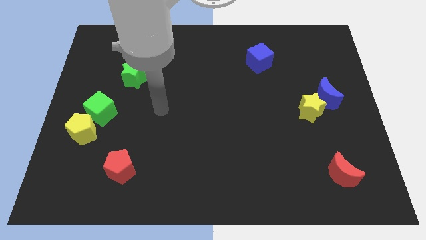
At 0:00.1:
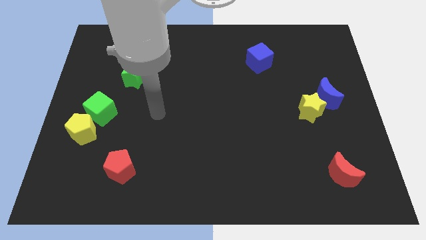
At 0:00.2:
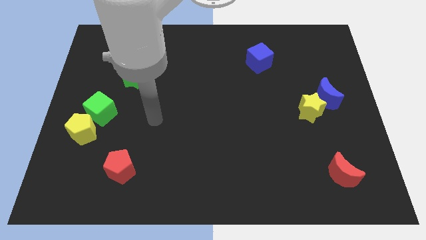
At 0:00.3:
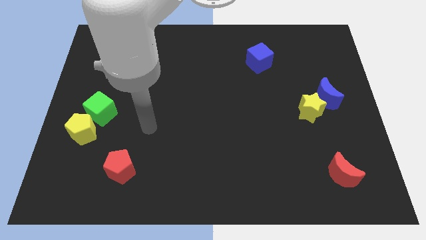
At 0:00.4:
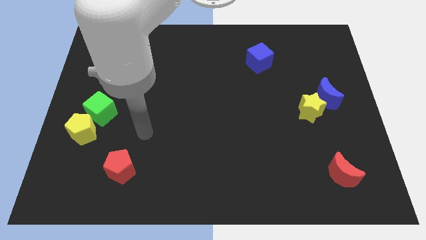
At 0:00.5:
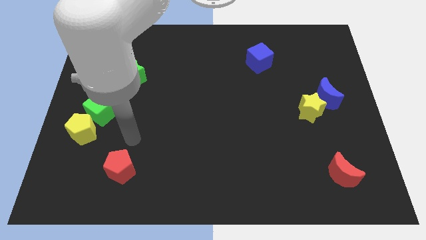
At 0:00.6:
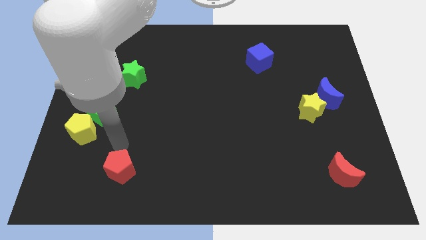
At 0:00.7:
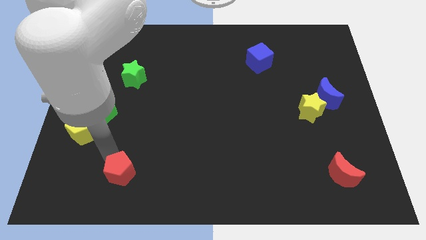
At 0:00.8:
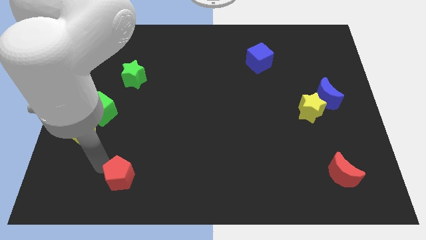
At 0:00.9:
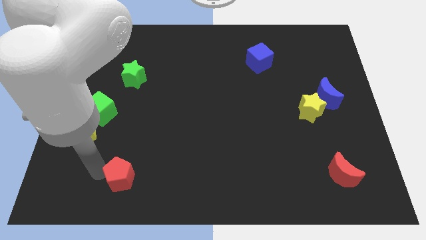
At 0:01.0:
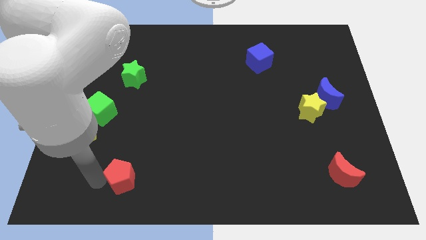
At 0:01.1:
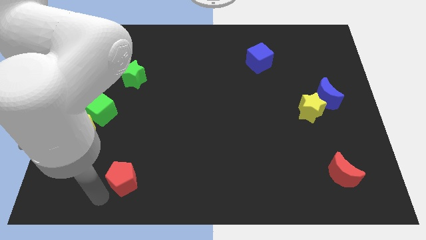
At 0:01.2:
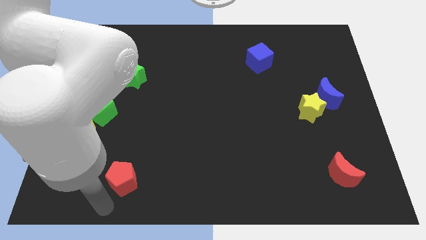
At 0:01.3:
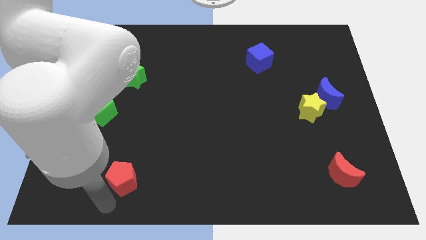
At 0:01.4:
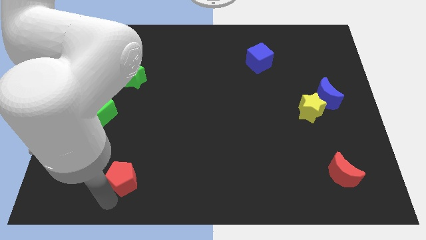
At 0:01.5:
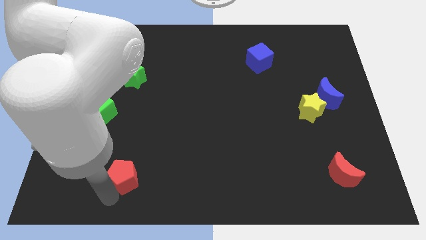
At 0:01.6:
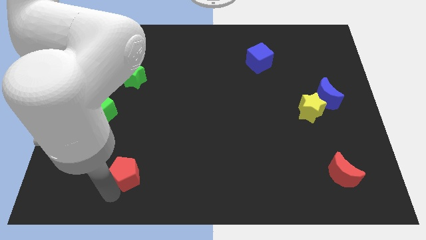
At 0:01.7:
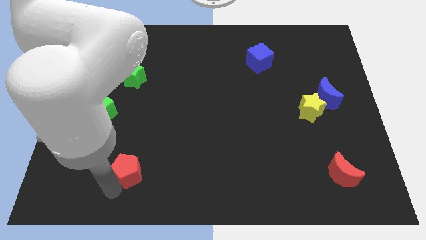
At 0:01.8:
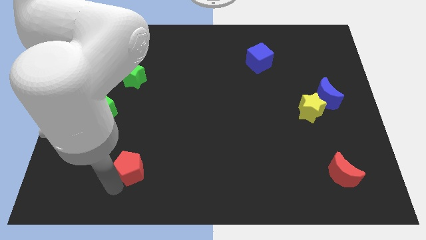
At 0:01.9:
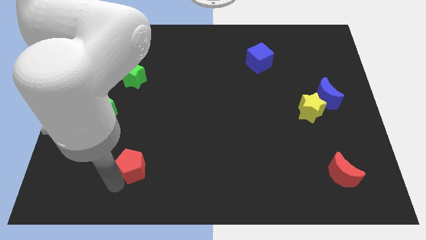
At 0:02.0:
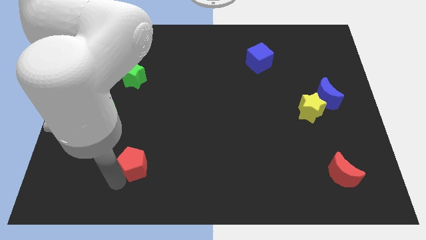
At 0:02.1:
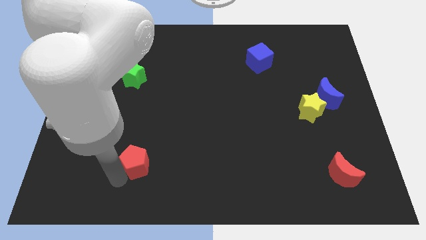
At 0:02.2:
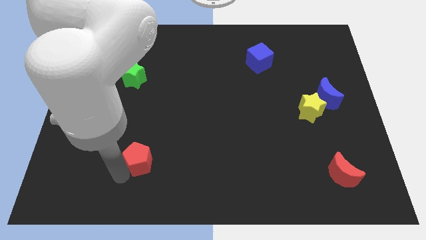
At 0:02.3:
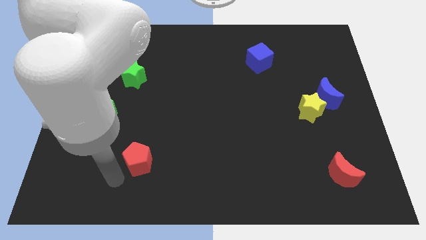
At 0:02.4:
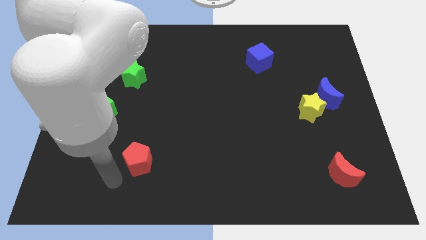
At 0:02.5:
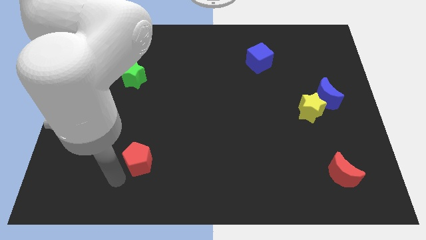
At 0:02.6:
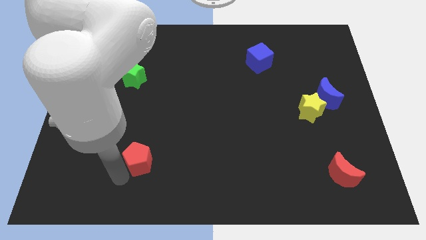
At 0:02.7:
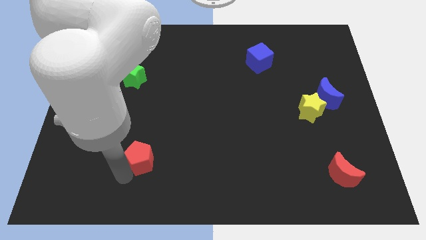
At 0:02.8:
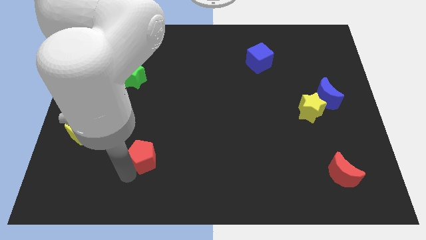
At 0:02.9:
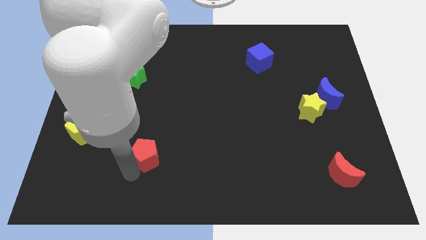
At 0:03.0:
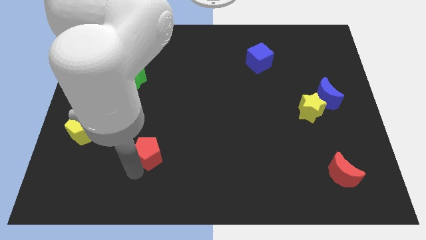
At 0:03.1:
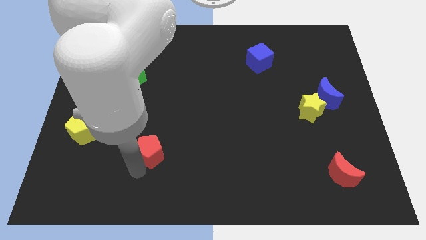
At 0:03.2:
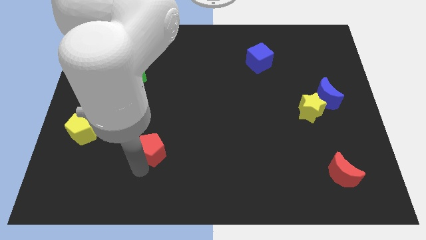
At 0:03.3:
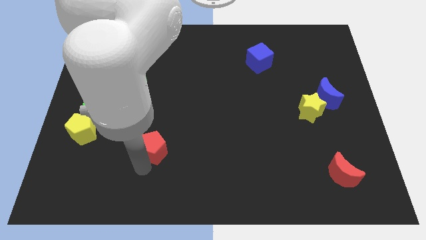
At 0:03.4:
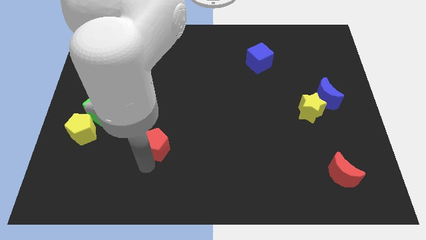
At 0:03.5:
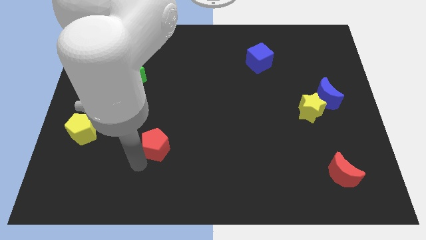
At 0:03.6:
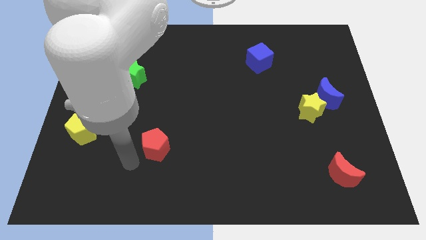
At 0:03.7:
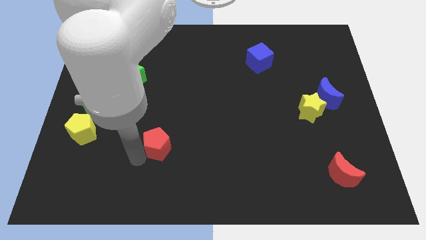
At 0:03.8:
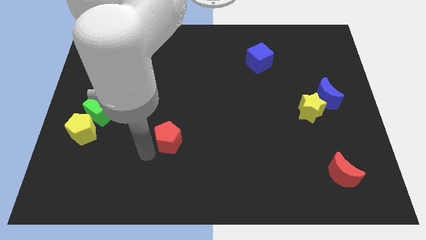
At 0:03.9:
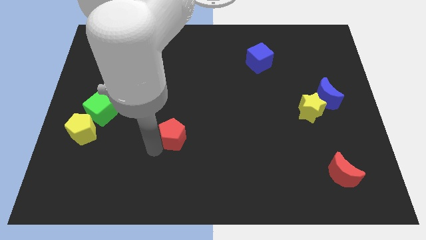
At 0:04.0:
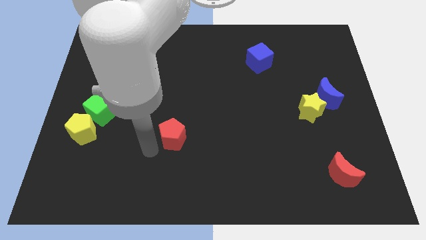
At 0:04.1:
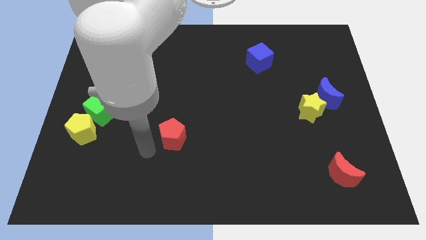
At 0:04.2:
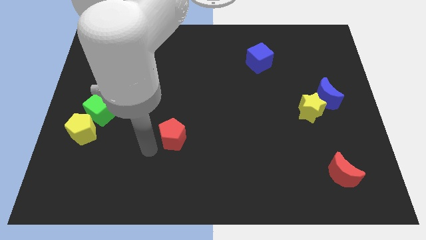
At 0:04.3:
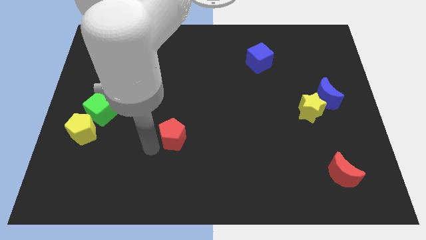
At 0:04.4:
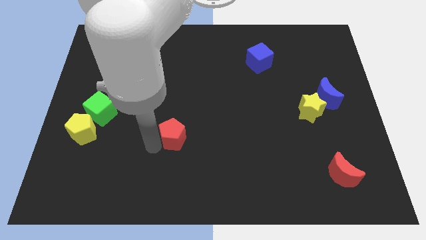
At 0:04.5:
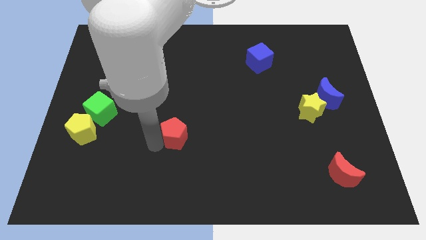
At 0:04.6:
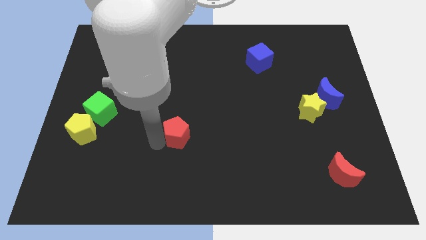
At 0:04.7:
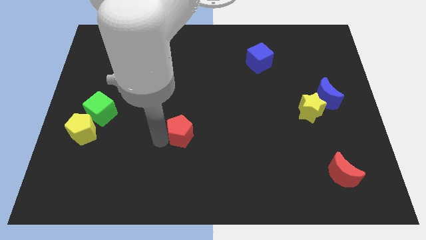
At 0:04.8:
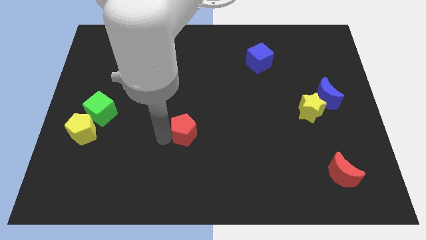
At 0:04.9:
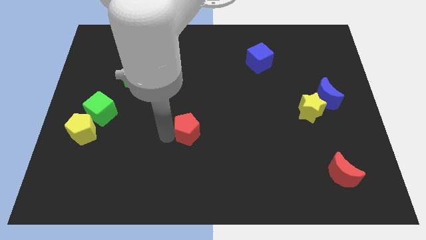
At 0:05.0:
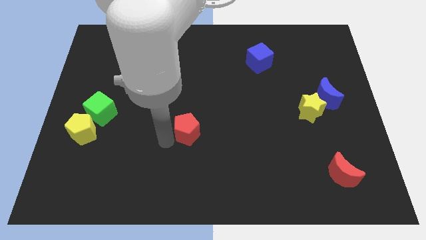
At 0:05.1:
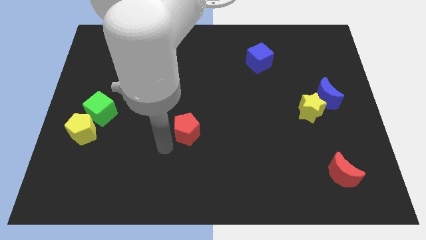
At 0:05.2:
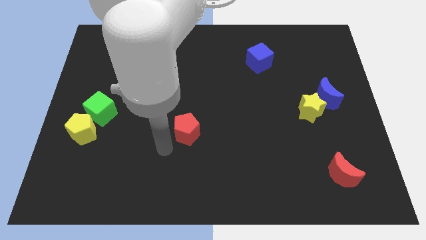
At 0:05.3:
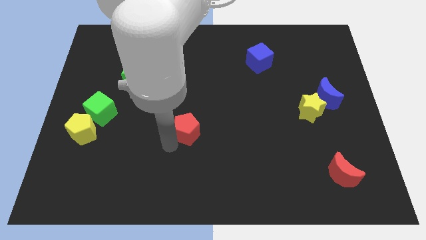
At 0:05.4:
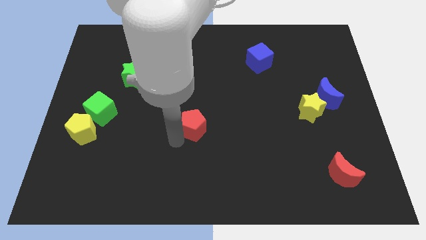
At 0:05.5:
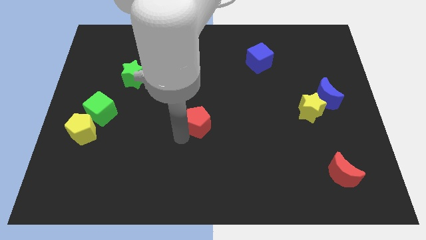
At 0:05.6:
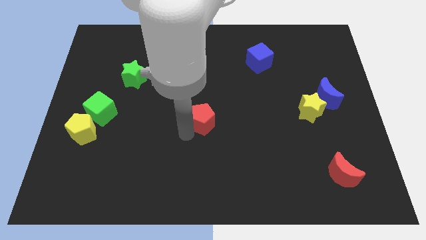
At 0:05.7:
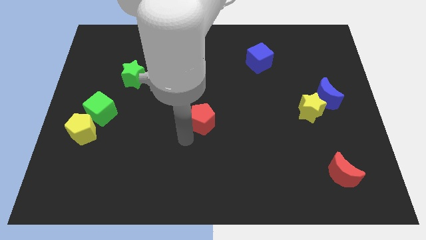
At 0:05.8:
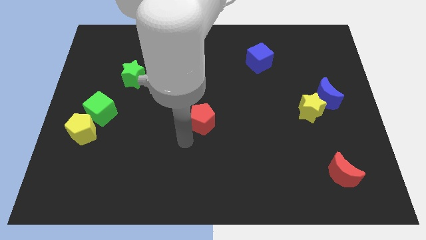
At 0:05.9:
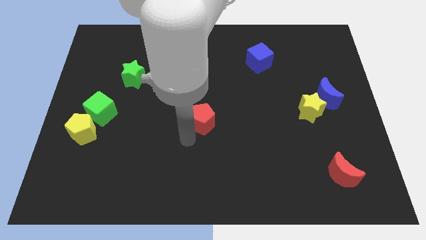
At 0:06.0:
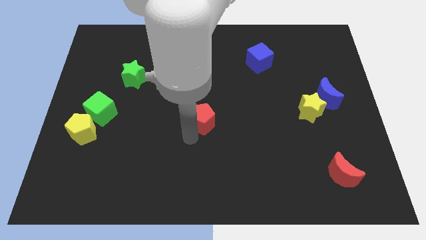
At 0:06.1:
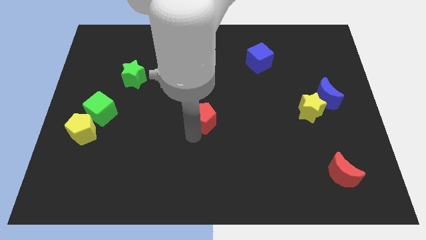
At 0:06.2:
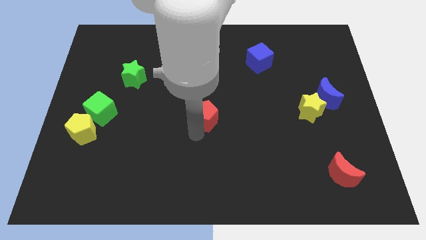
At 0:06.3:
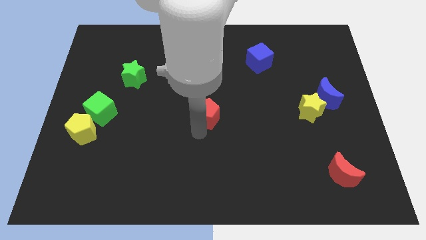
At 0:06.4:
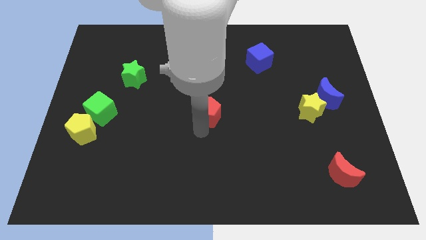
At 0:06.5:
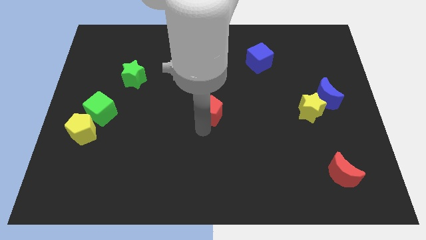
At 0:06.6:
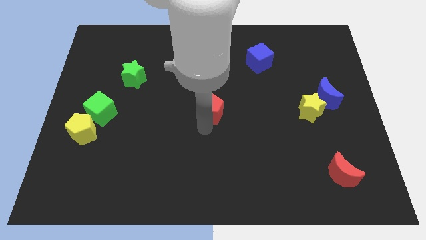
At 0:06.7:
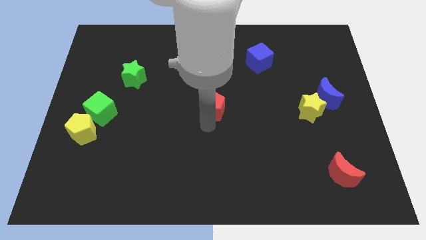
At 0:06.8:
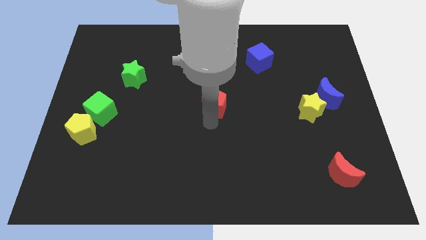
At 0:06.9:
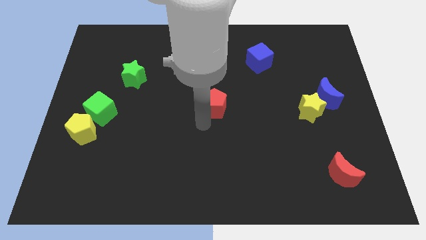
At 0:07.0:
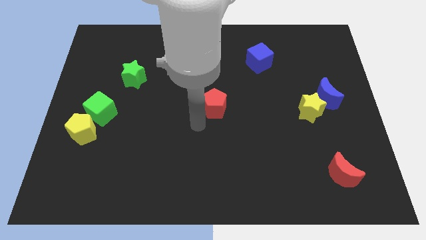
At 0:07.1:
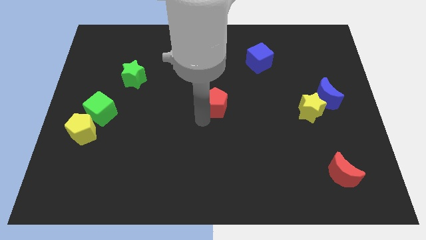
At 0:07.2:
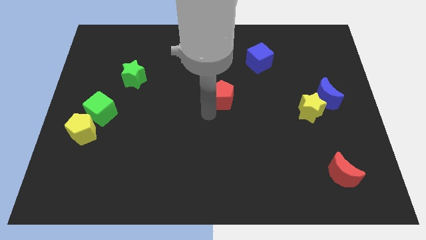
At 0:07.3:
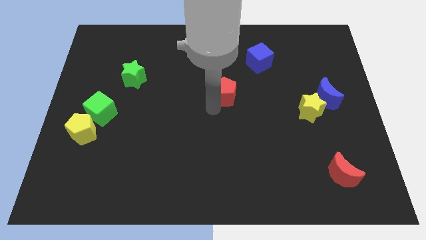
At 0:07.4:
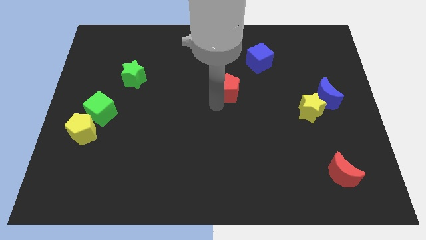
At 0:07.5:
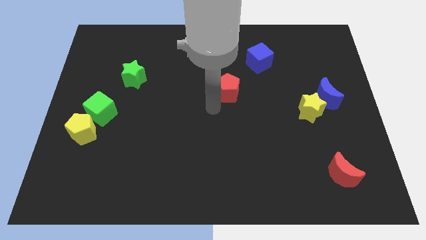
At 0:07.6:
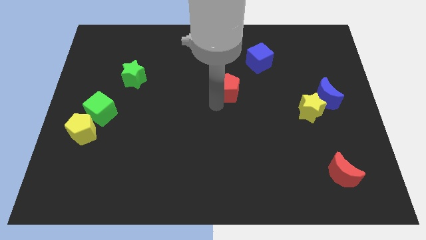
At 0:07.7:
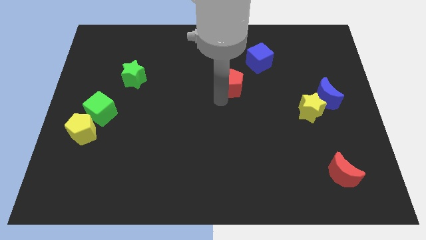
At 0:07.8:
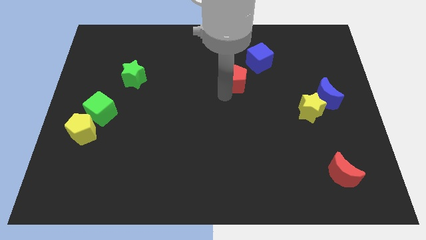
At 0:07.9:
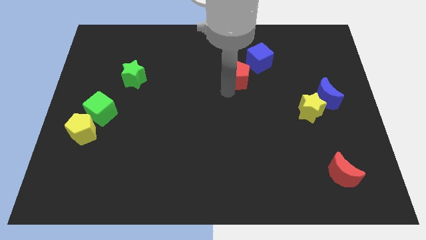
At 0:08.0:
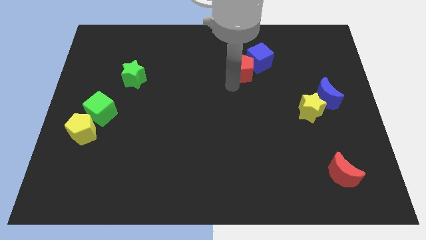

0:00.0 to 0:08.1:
move the red pentagon close to the blue cube
